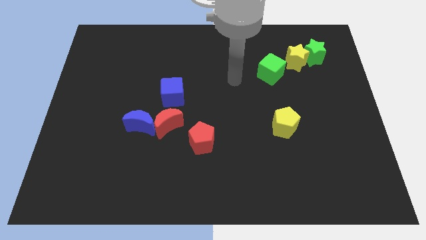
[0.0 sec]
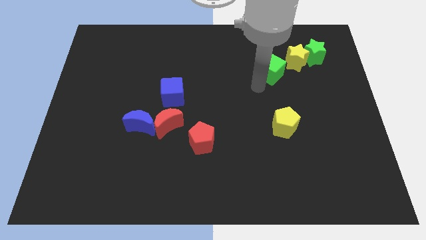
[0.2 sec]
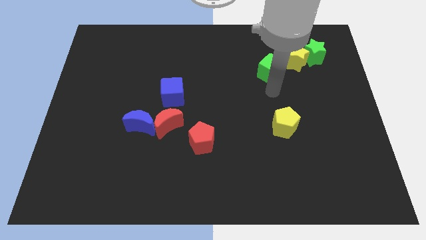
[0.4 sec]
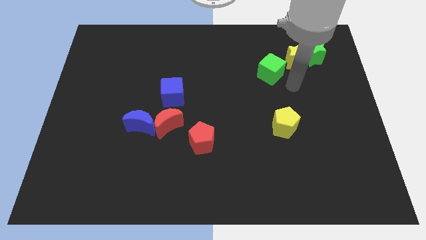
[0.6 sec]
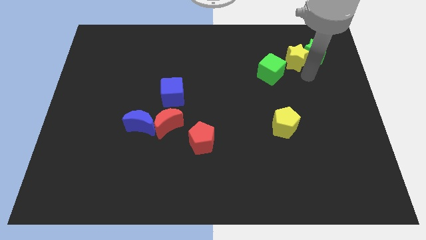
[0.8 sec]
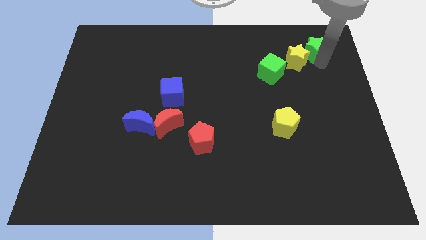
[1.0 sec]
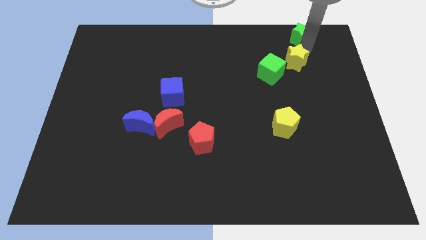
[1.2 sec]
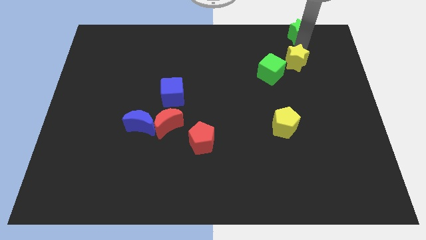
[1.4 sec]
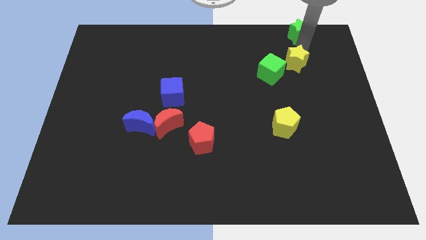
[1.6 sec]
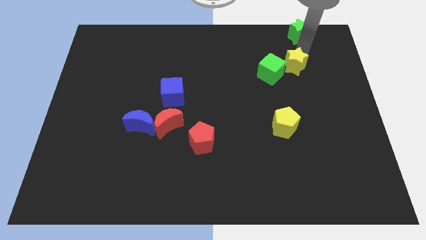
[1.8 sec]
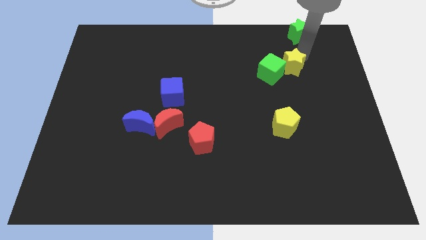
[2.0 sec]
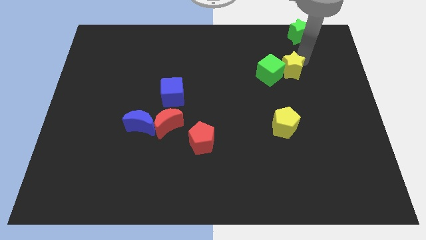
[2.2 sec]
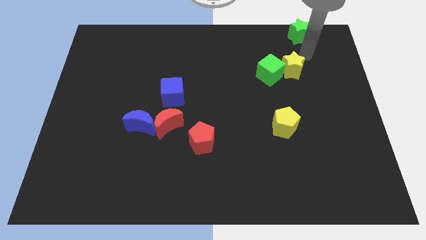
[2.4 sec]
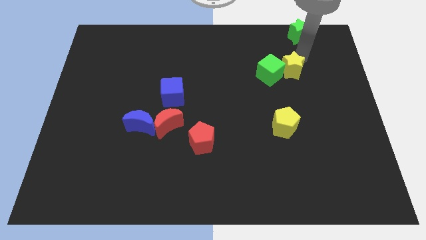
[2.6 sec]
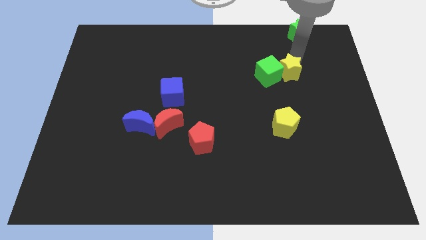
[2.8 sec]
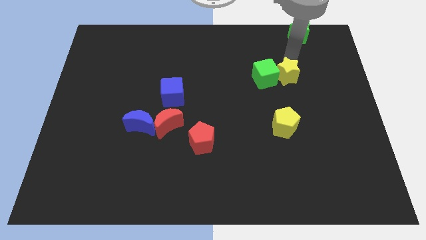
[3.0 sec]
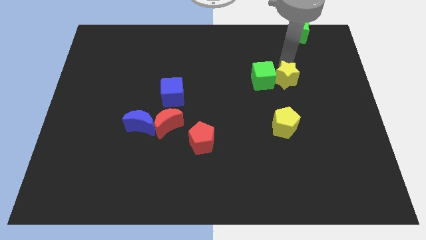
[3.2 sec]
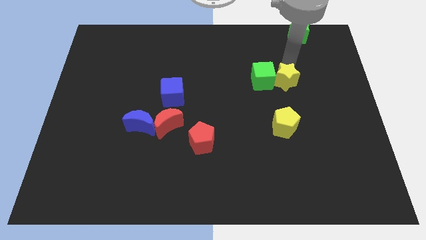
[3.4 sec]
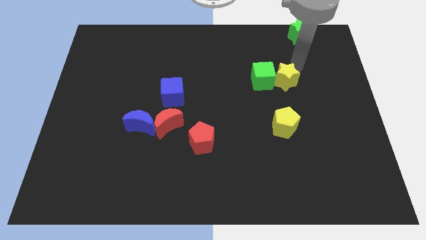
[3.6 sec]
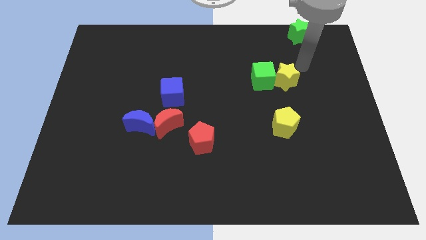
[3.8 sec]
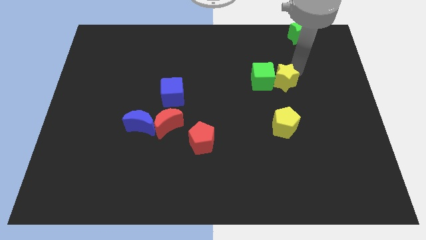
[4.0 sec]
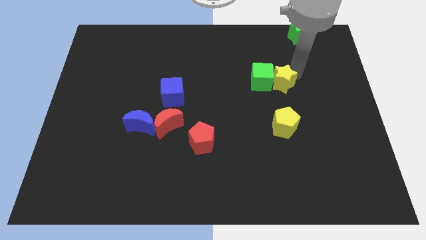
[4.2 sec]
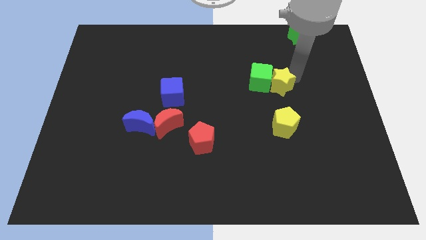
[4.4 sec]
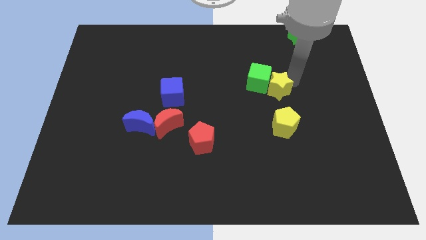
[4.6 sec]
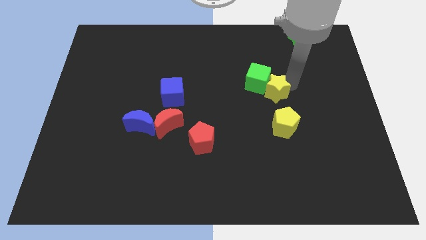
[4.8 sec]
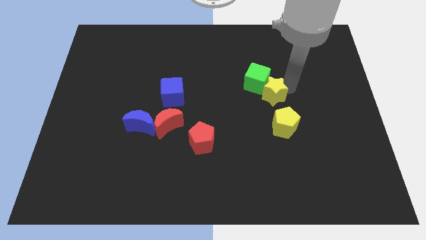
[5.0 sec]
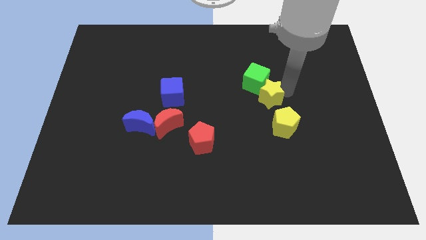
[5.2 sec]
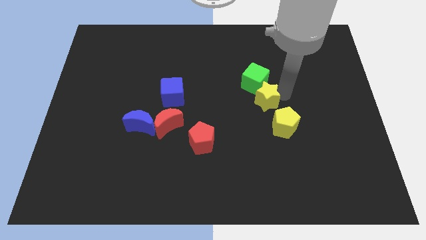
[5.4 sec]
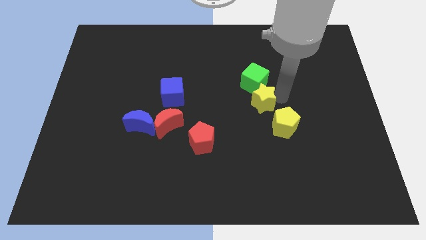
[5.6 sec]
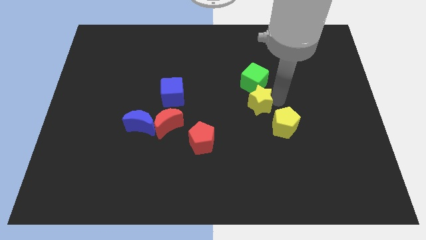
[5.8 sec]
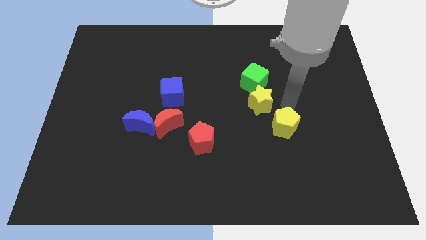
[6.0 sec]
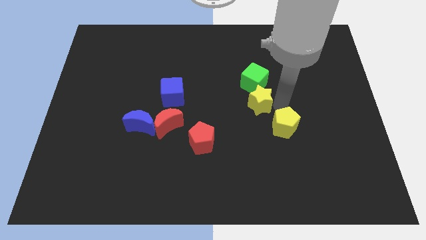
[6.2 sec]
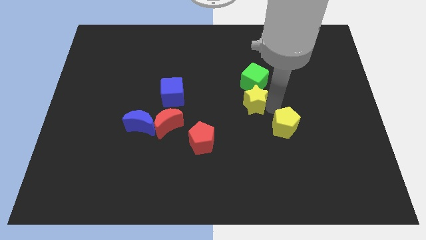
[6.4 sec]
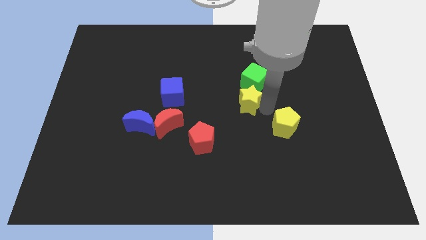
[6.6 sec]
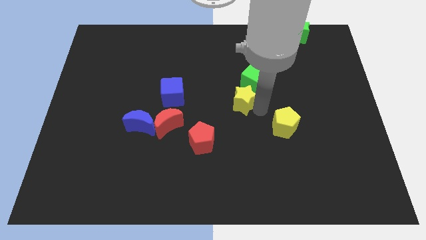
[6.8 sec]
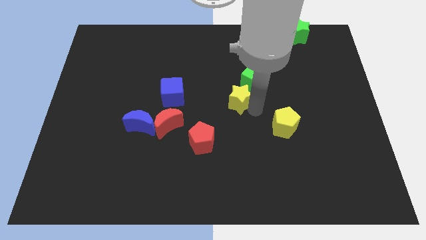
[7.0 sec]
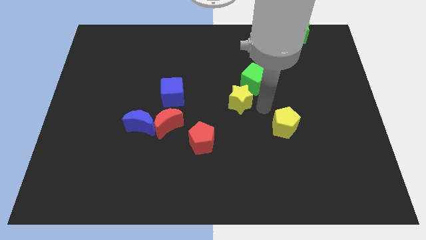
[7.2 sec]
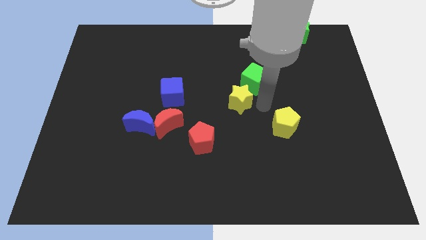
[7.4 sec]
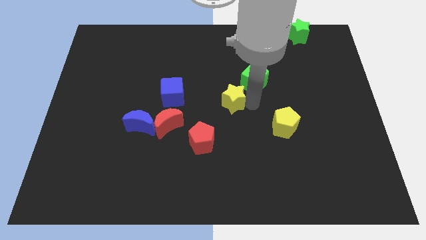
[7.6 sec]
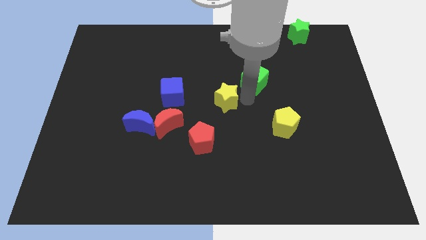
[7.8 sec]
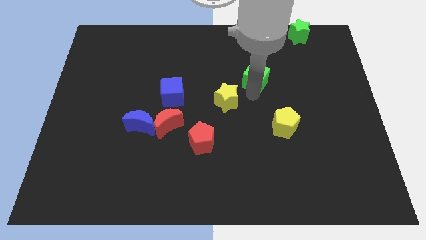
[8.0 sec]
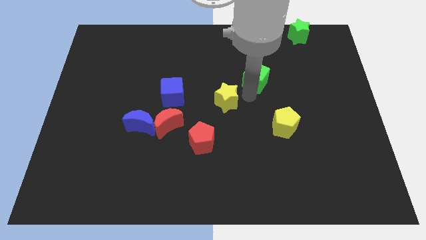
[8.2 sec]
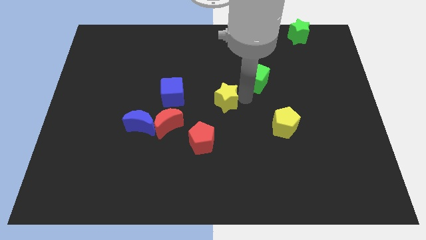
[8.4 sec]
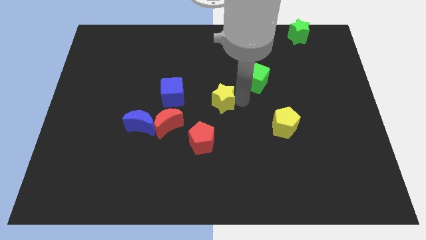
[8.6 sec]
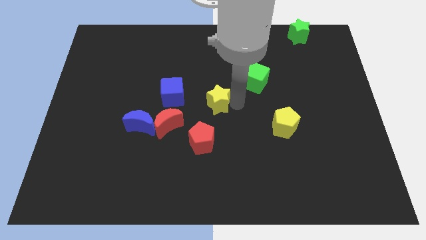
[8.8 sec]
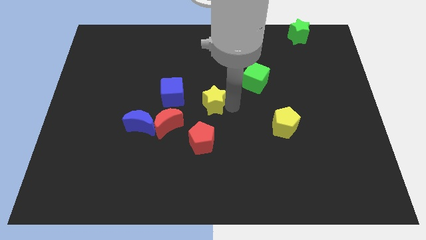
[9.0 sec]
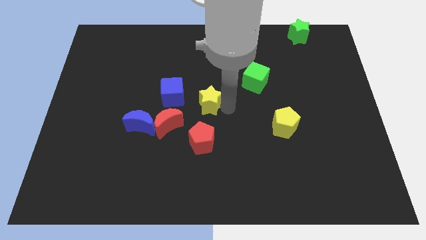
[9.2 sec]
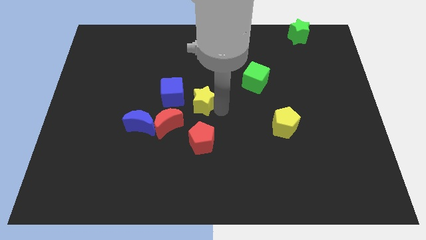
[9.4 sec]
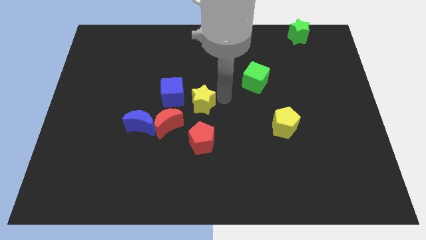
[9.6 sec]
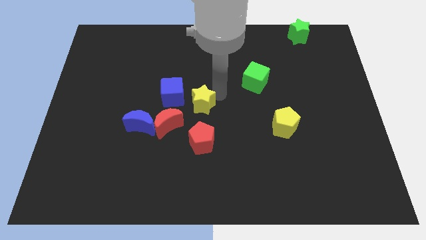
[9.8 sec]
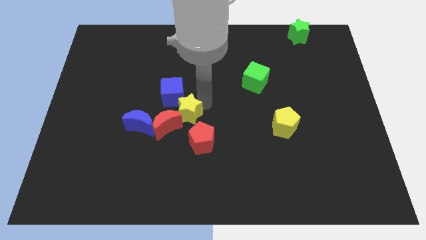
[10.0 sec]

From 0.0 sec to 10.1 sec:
slide the yellow star close to the red moon

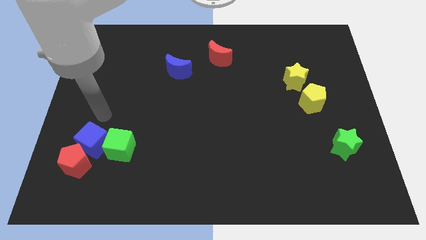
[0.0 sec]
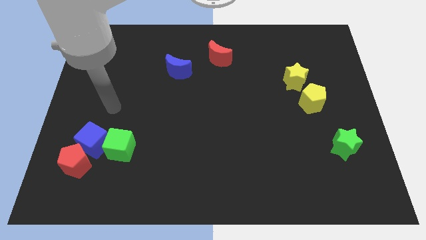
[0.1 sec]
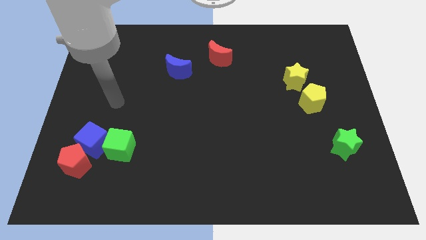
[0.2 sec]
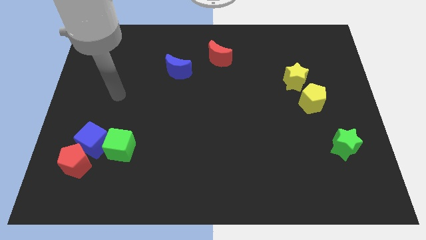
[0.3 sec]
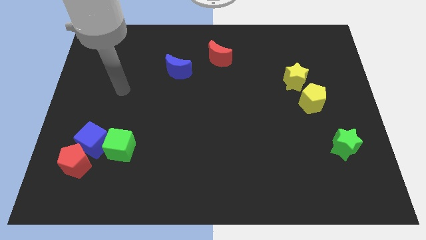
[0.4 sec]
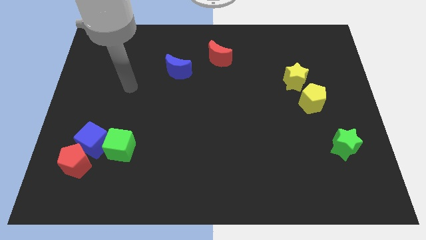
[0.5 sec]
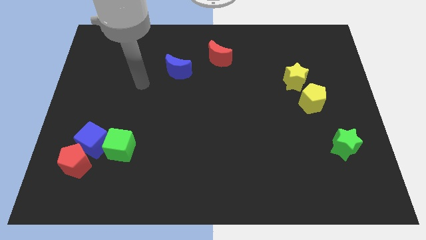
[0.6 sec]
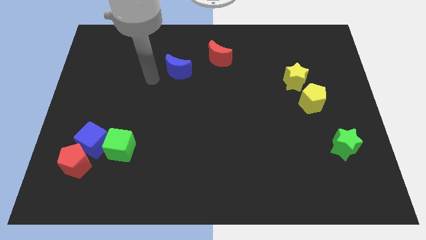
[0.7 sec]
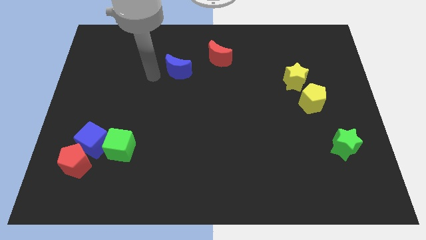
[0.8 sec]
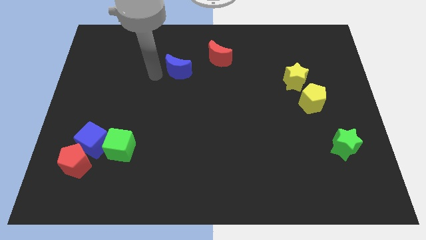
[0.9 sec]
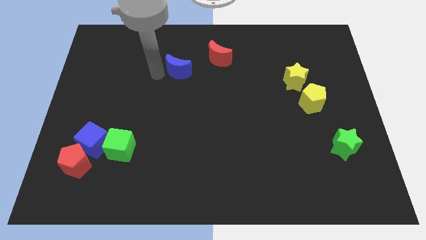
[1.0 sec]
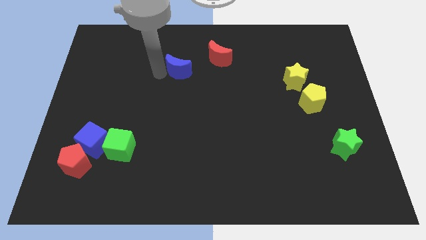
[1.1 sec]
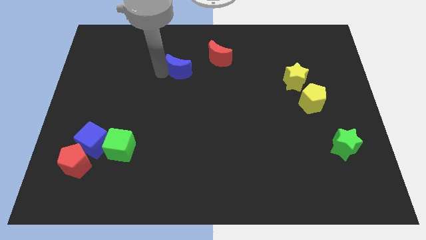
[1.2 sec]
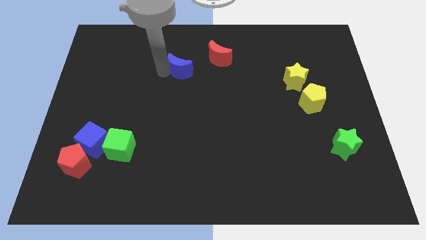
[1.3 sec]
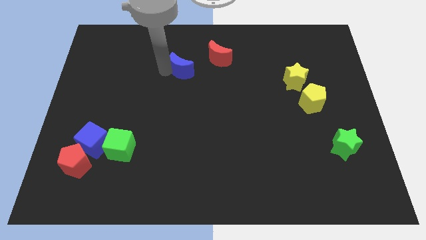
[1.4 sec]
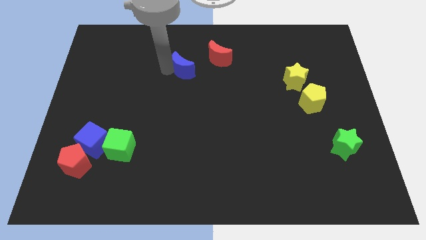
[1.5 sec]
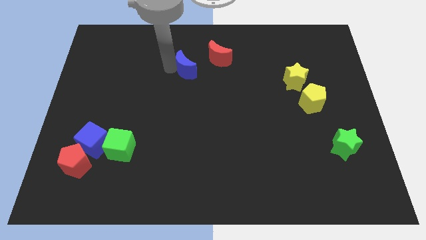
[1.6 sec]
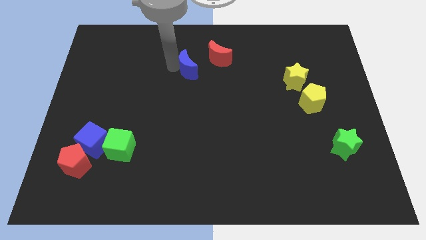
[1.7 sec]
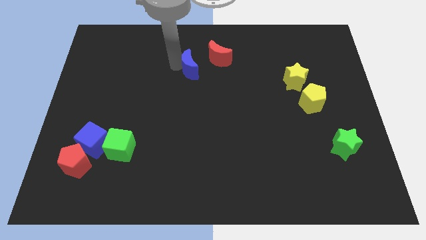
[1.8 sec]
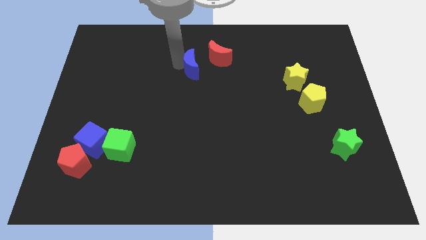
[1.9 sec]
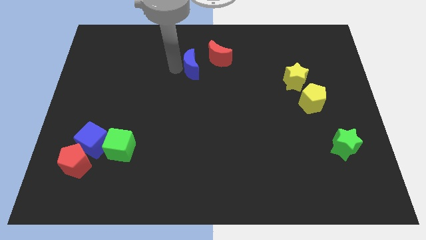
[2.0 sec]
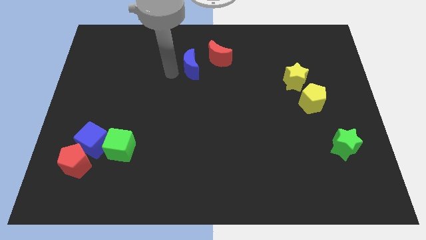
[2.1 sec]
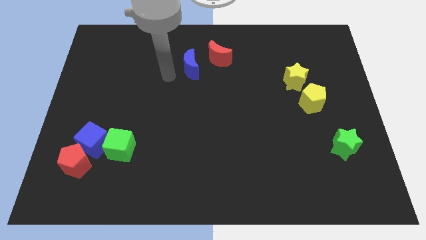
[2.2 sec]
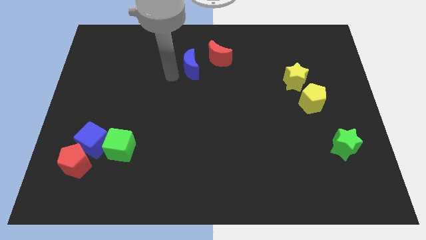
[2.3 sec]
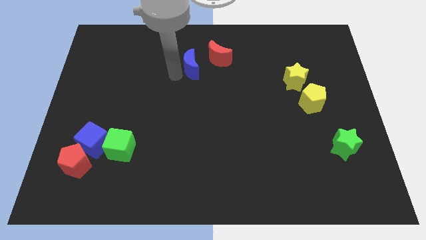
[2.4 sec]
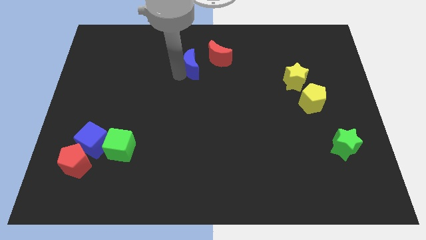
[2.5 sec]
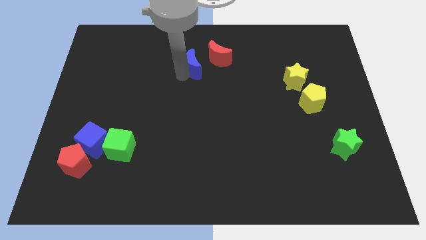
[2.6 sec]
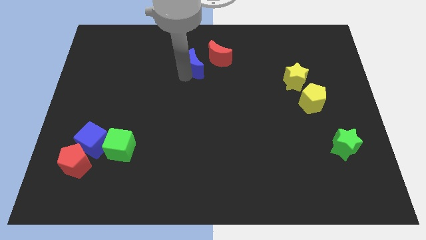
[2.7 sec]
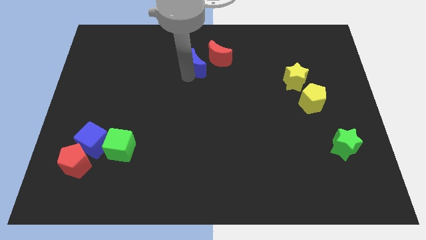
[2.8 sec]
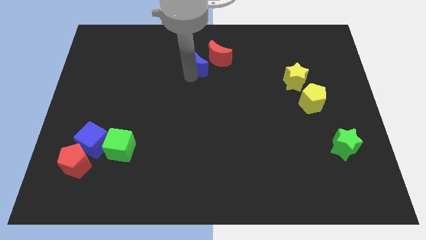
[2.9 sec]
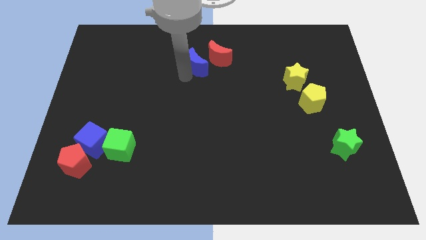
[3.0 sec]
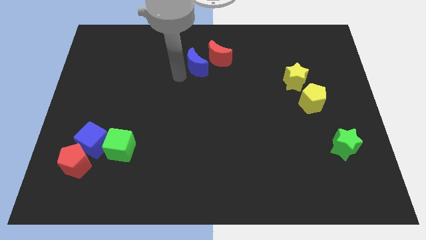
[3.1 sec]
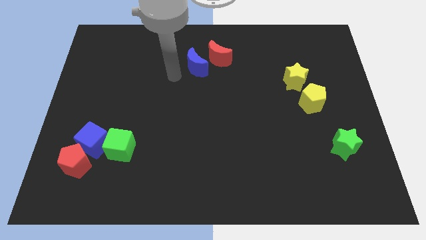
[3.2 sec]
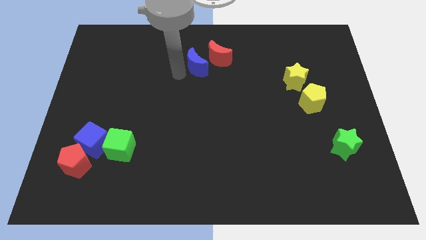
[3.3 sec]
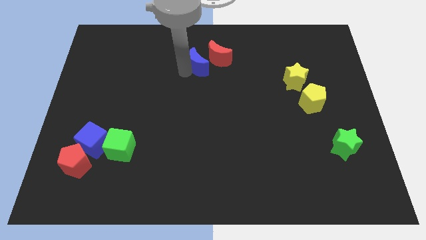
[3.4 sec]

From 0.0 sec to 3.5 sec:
push the blue moon to the red moon
